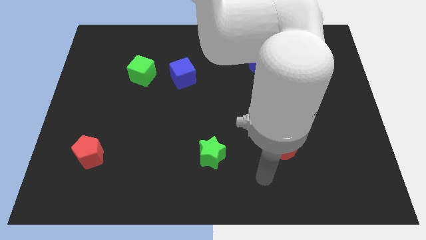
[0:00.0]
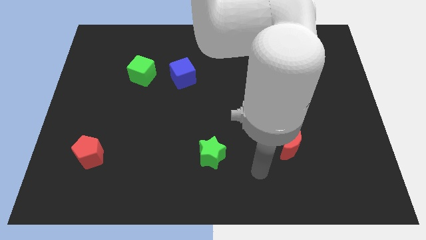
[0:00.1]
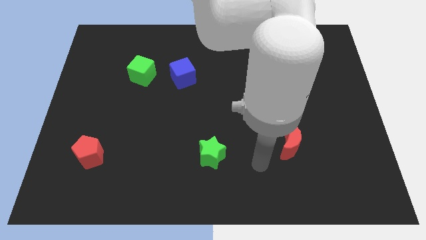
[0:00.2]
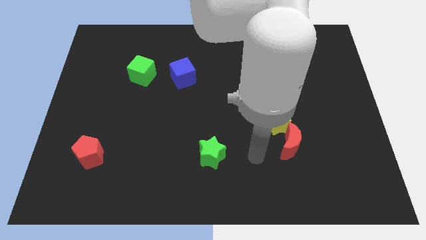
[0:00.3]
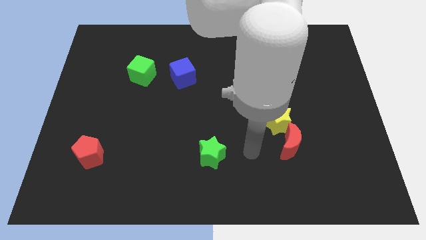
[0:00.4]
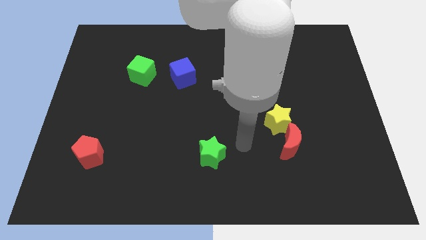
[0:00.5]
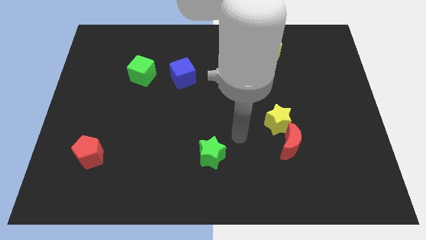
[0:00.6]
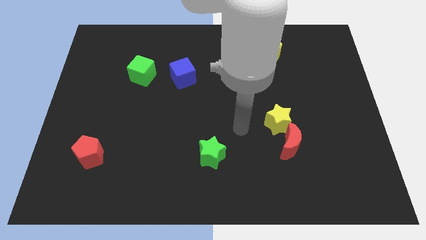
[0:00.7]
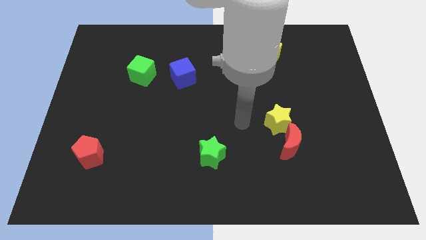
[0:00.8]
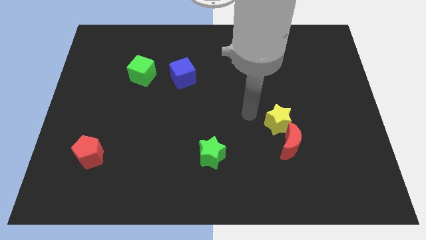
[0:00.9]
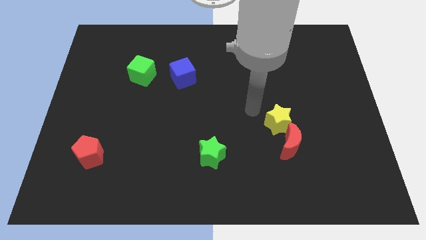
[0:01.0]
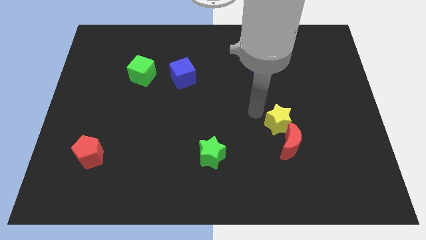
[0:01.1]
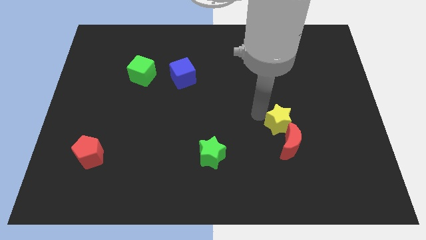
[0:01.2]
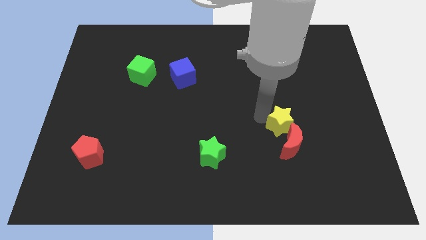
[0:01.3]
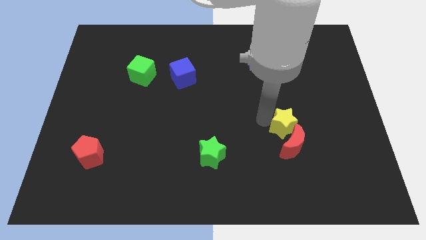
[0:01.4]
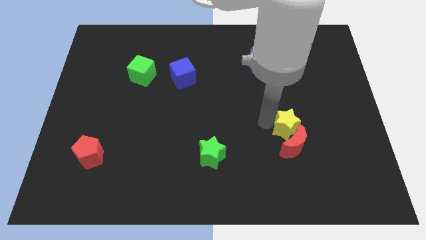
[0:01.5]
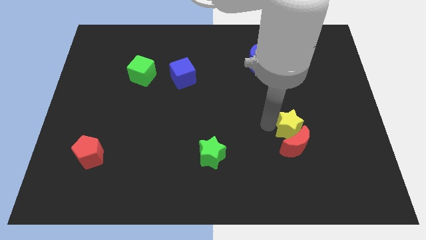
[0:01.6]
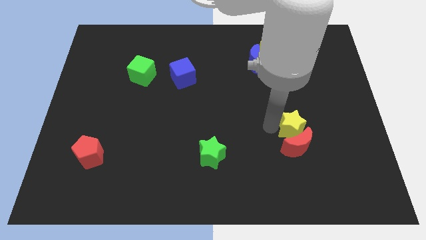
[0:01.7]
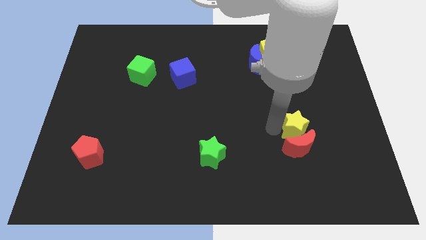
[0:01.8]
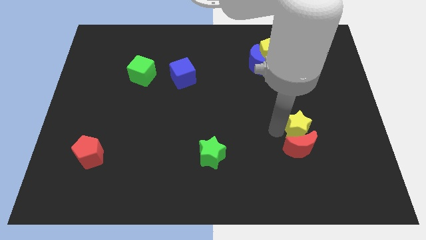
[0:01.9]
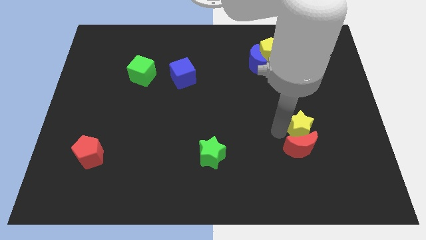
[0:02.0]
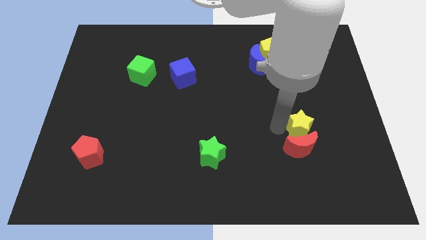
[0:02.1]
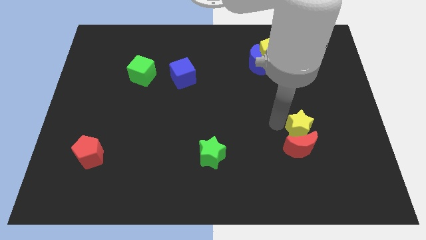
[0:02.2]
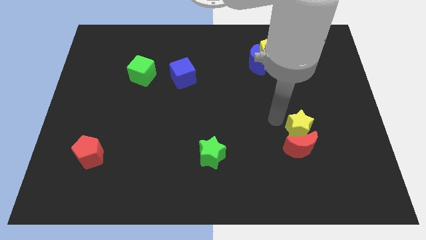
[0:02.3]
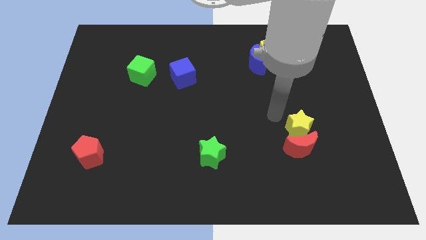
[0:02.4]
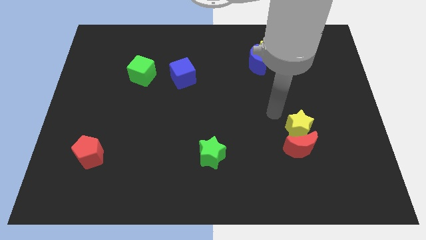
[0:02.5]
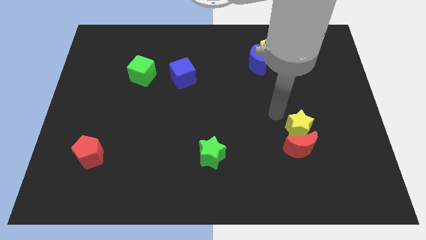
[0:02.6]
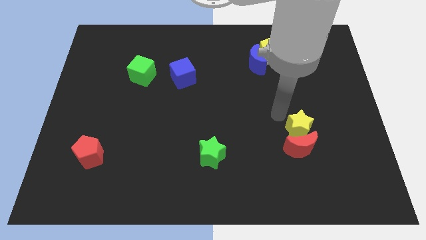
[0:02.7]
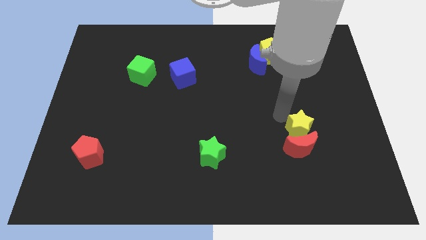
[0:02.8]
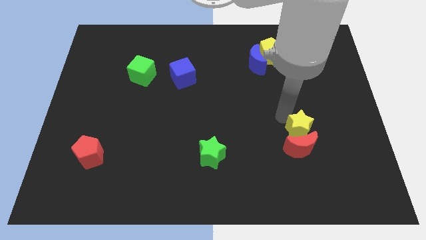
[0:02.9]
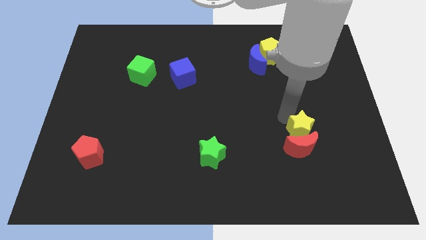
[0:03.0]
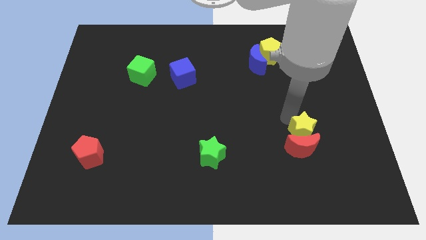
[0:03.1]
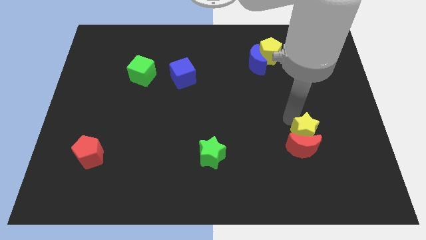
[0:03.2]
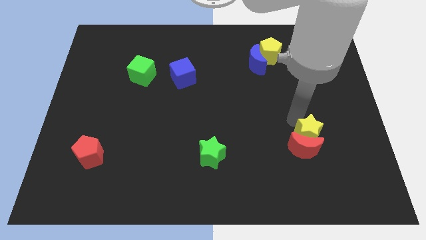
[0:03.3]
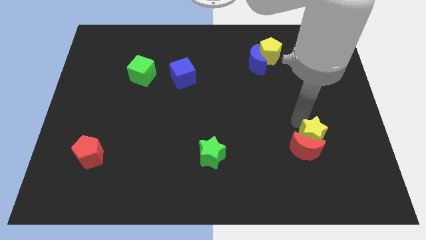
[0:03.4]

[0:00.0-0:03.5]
move the yellow star a little downwards and right

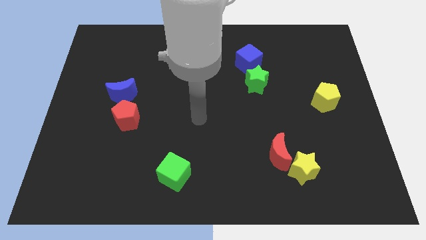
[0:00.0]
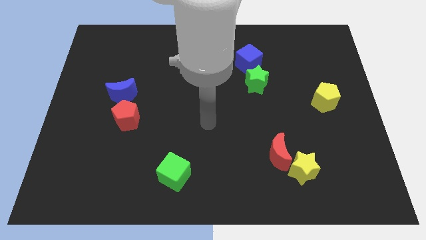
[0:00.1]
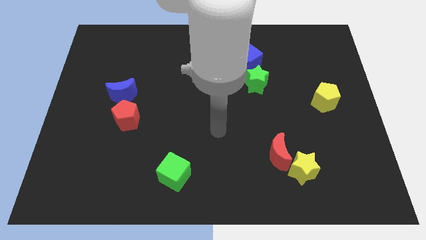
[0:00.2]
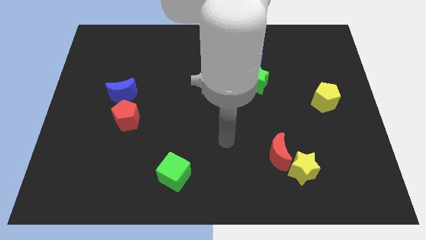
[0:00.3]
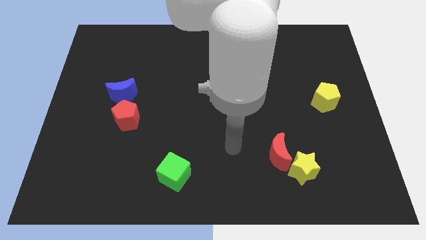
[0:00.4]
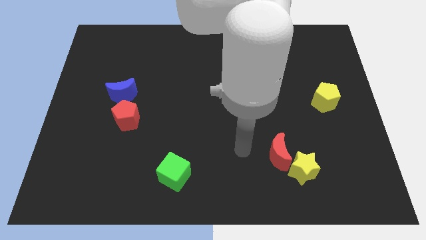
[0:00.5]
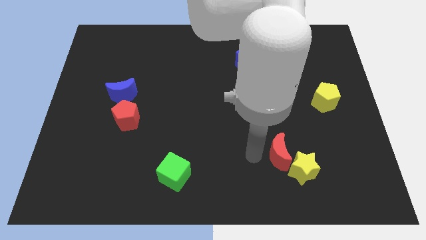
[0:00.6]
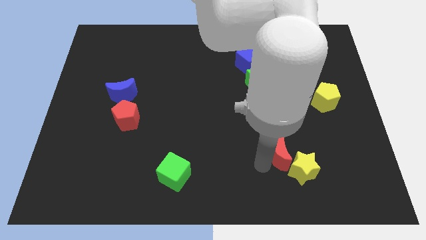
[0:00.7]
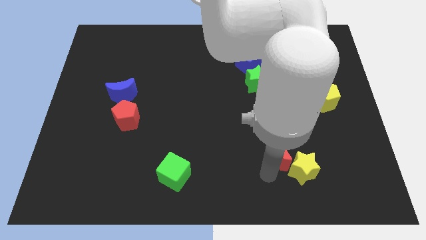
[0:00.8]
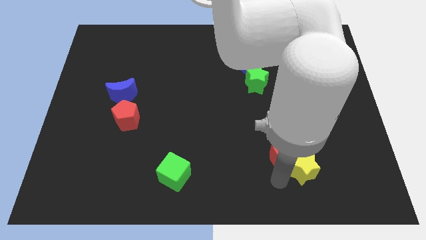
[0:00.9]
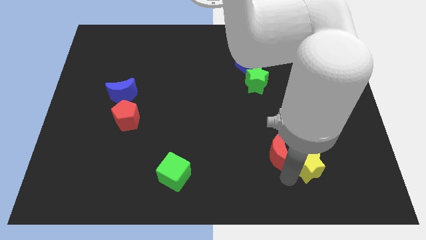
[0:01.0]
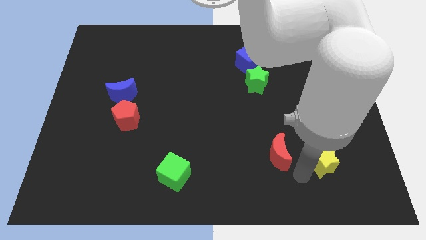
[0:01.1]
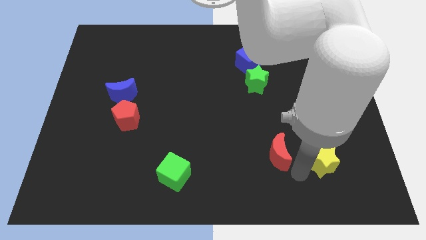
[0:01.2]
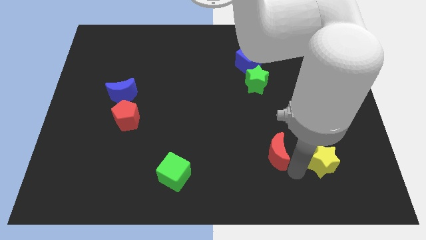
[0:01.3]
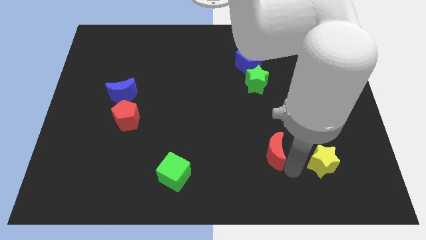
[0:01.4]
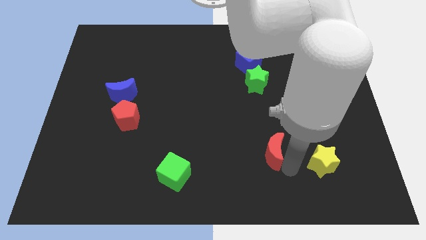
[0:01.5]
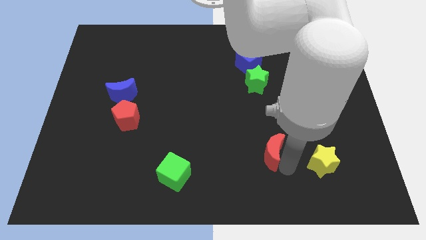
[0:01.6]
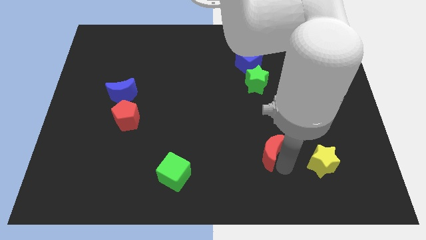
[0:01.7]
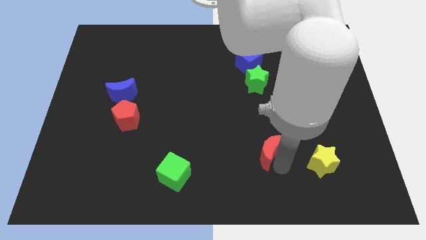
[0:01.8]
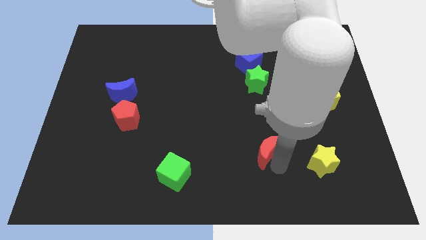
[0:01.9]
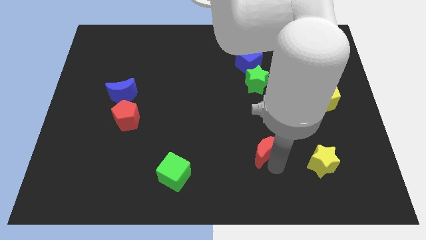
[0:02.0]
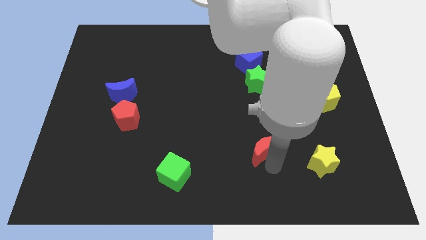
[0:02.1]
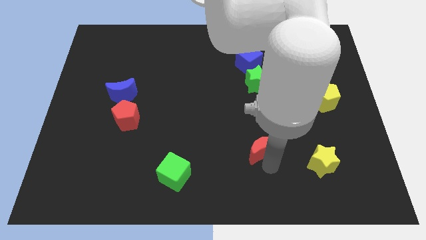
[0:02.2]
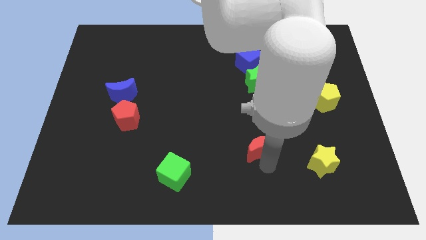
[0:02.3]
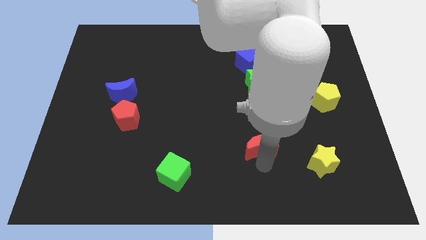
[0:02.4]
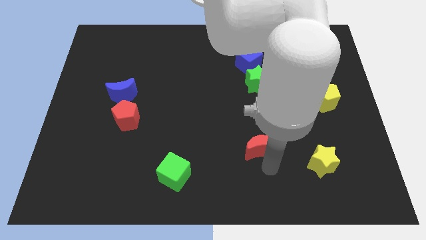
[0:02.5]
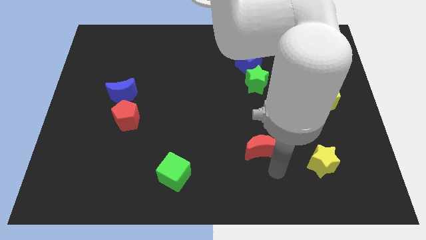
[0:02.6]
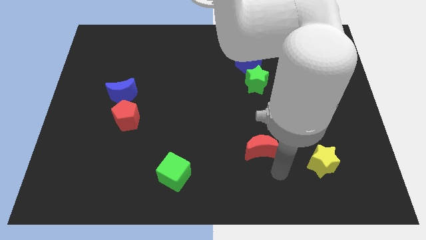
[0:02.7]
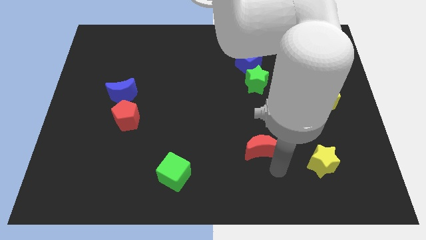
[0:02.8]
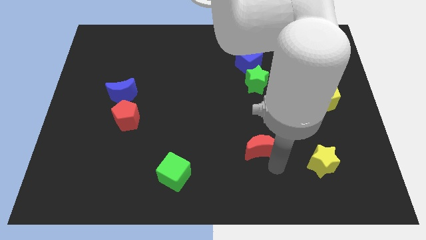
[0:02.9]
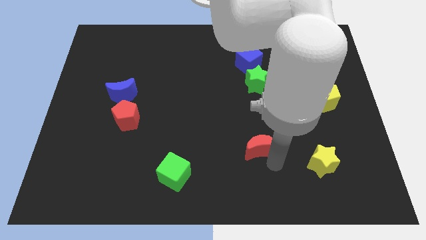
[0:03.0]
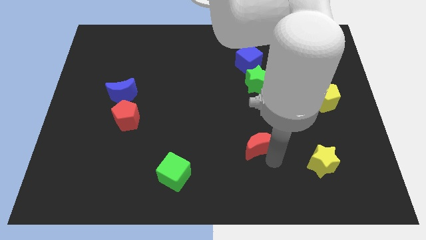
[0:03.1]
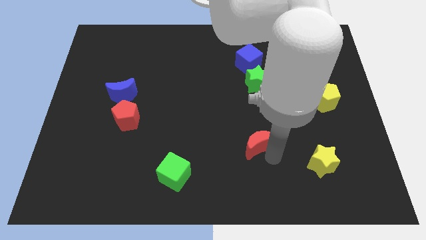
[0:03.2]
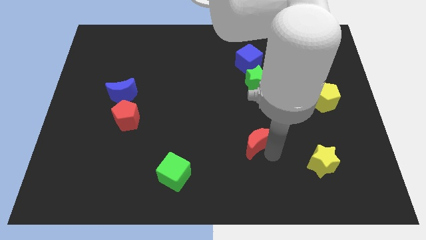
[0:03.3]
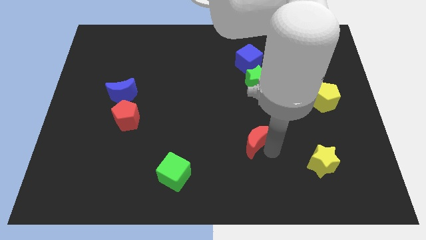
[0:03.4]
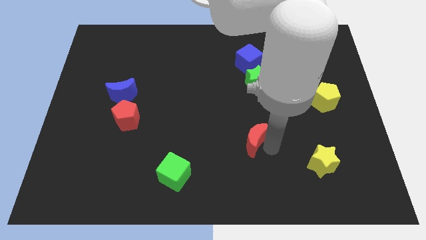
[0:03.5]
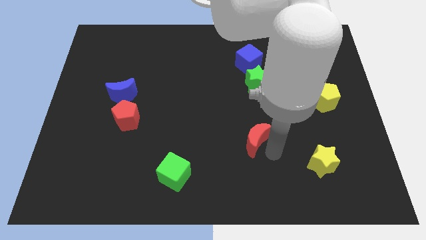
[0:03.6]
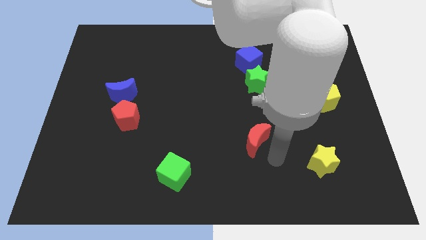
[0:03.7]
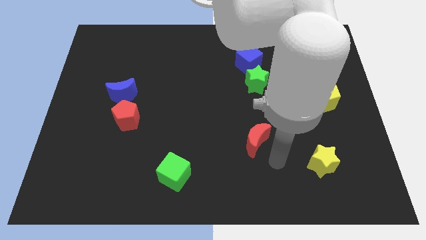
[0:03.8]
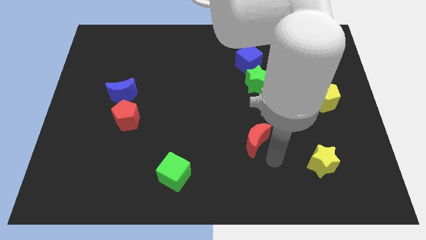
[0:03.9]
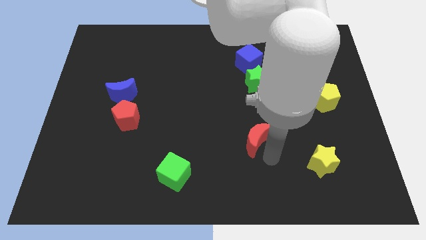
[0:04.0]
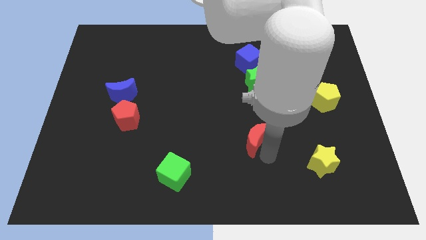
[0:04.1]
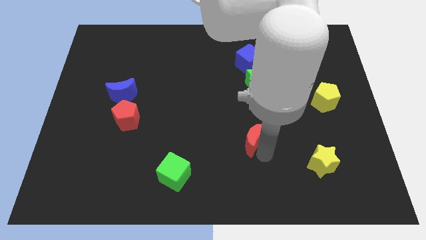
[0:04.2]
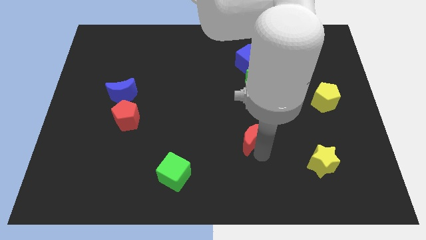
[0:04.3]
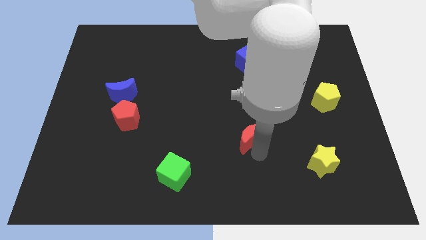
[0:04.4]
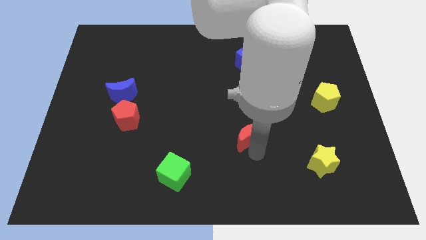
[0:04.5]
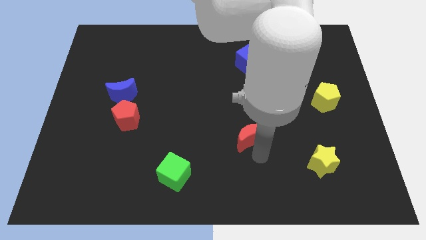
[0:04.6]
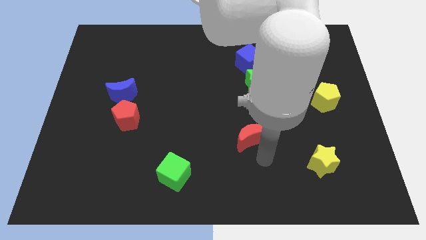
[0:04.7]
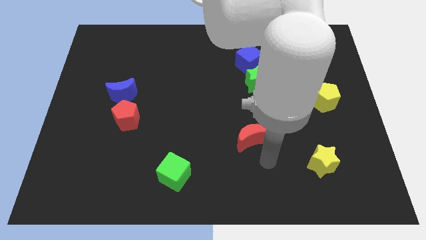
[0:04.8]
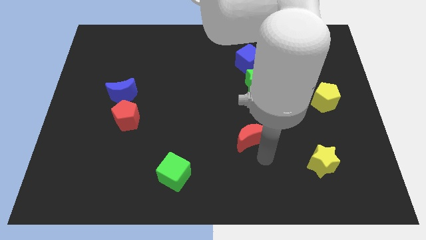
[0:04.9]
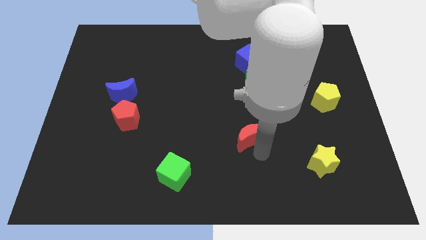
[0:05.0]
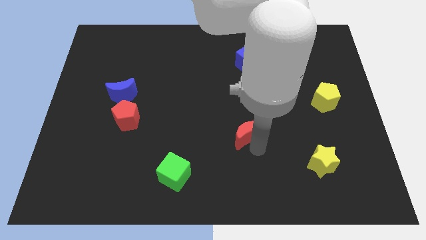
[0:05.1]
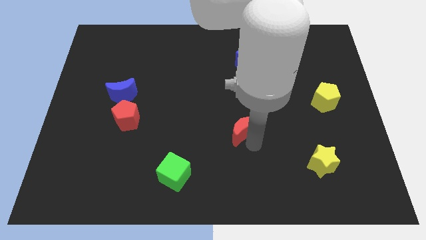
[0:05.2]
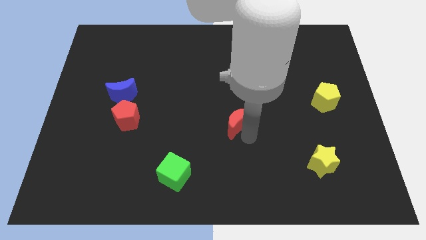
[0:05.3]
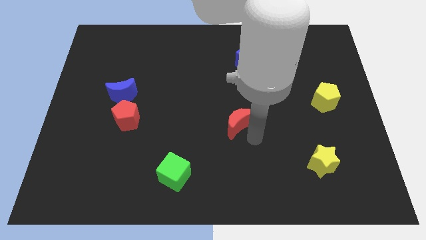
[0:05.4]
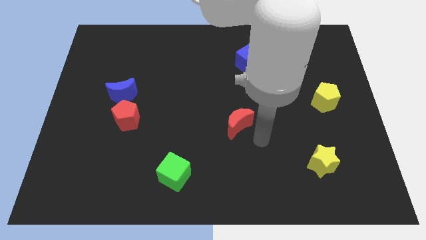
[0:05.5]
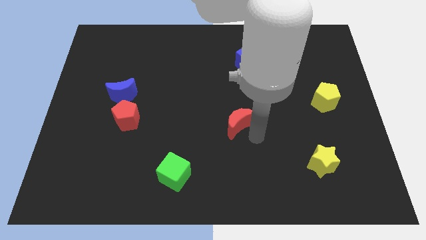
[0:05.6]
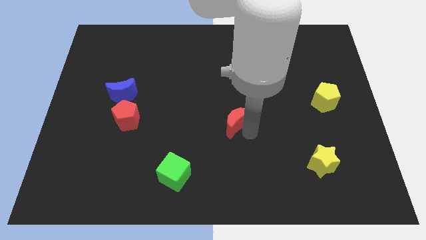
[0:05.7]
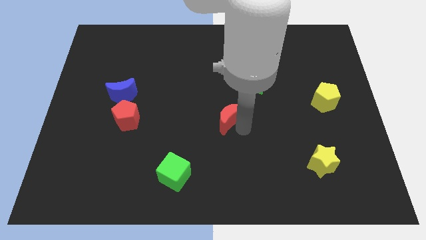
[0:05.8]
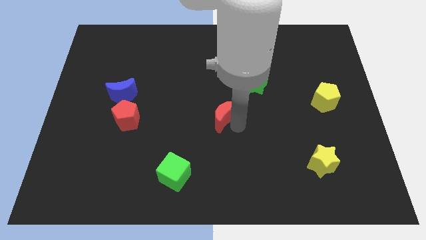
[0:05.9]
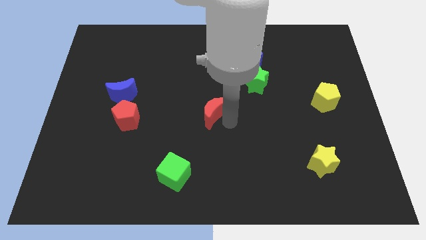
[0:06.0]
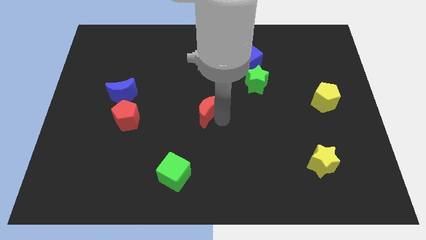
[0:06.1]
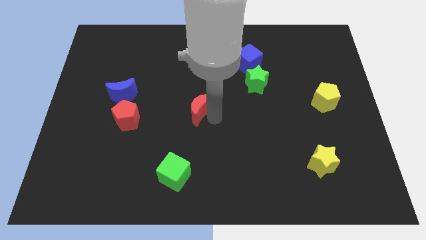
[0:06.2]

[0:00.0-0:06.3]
move the red moon upwards and to the left
